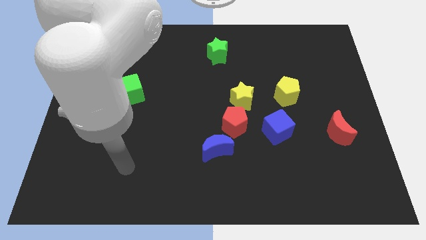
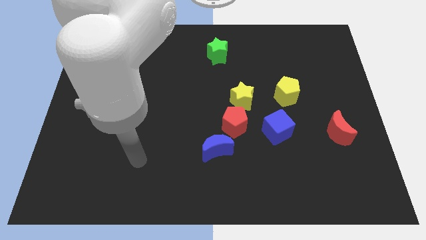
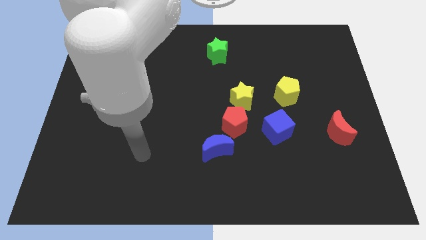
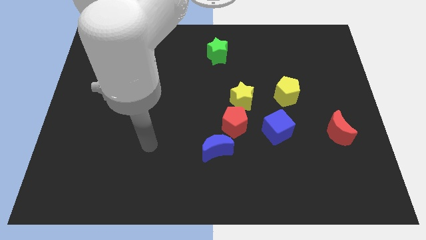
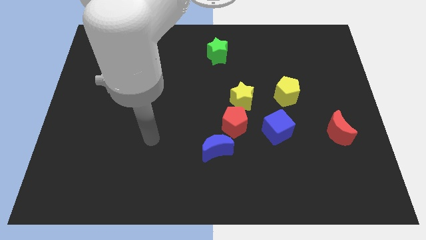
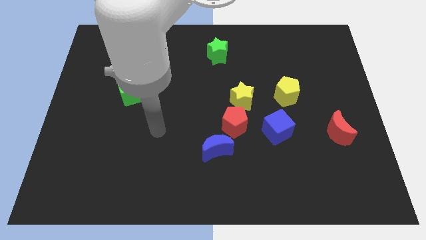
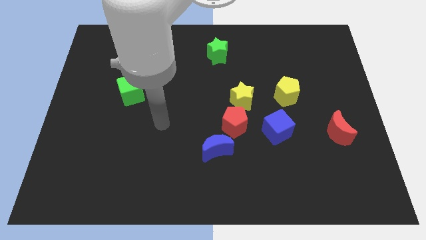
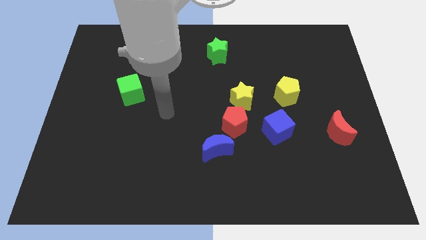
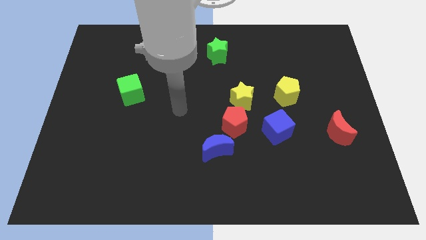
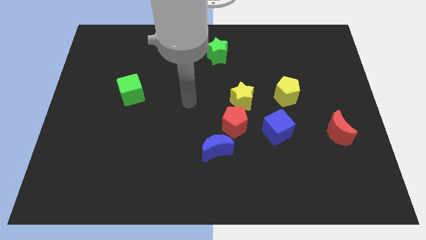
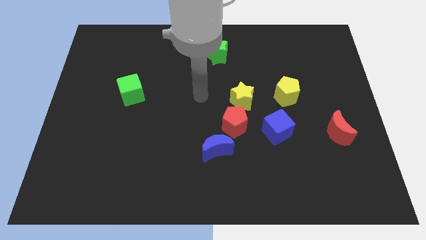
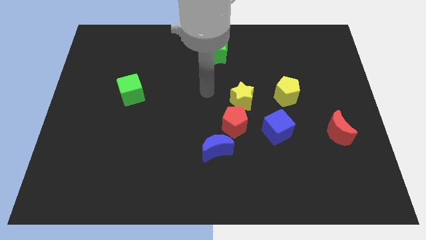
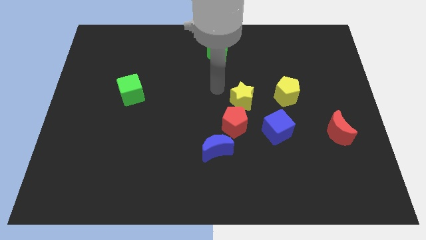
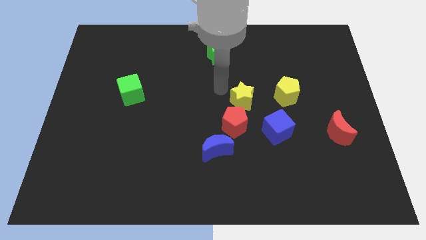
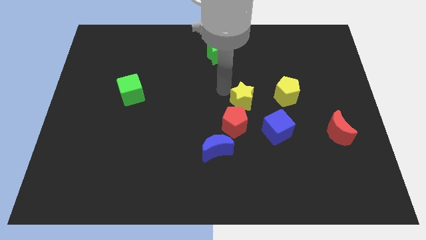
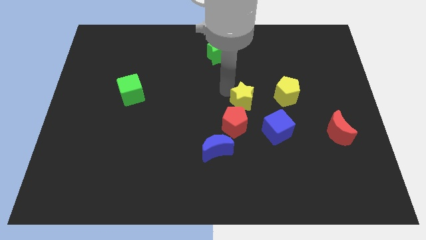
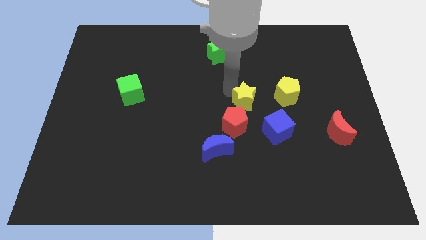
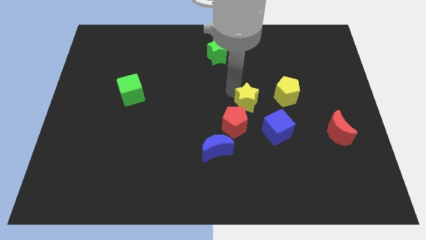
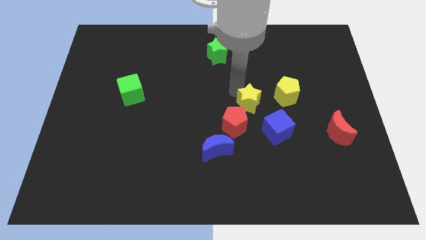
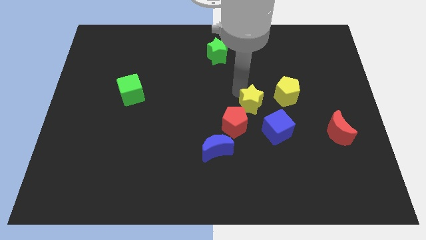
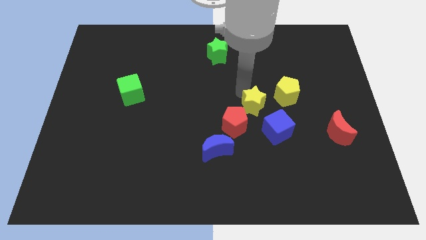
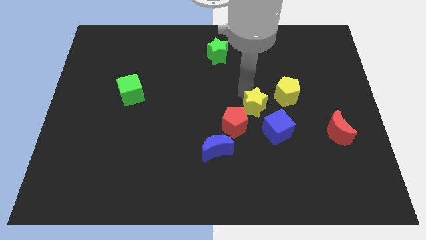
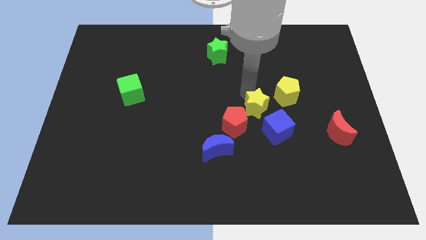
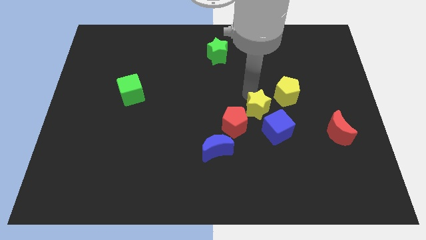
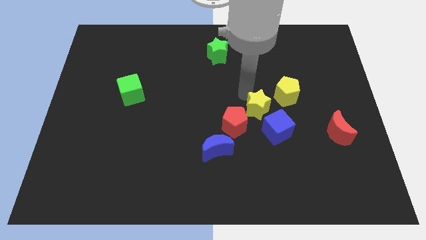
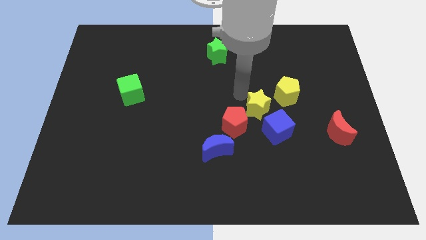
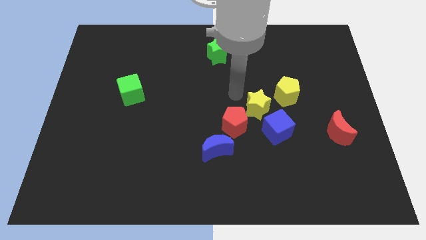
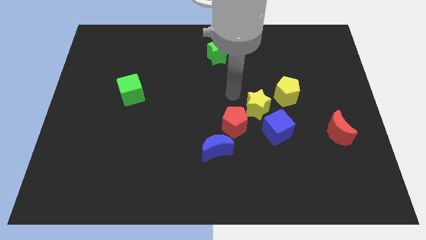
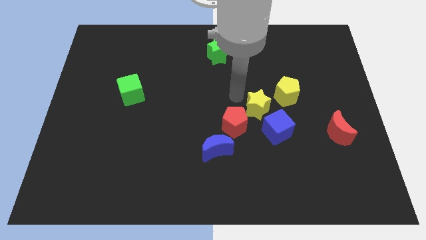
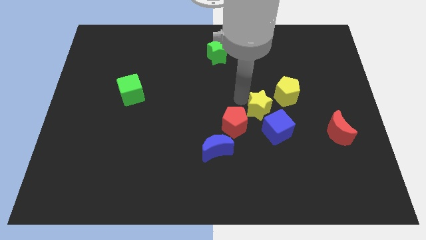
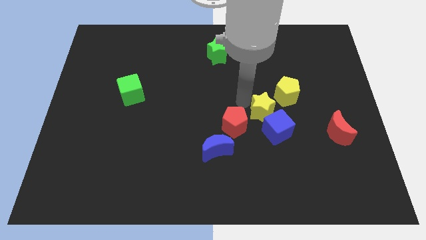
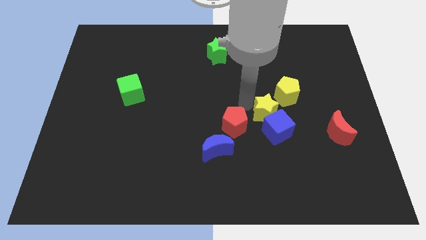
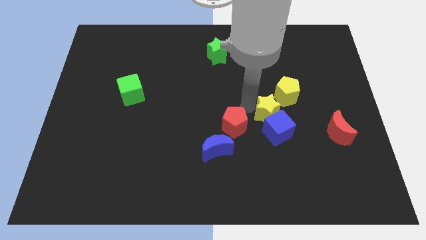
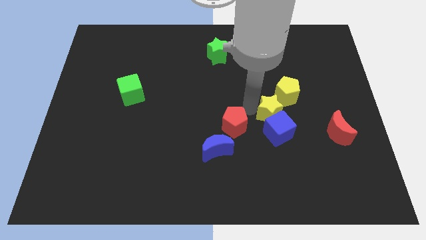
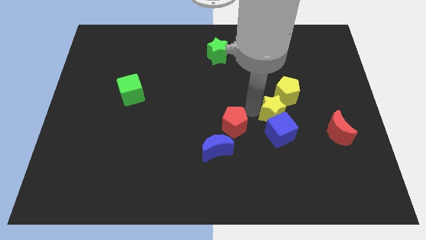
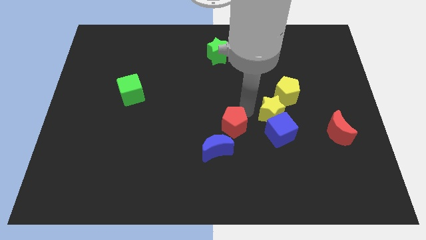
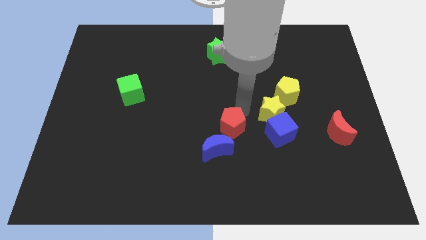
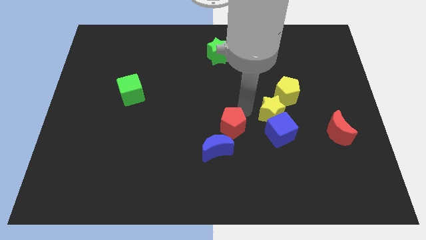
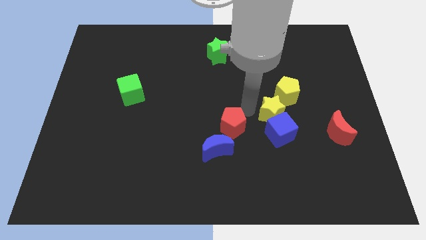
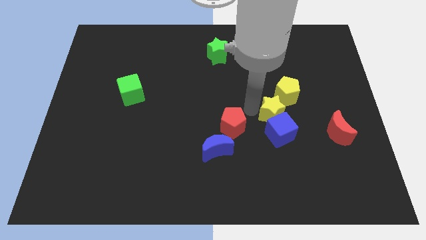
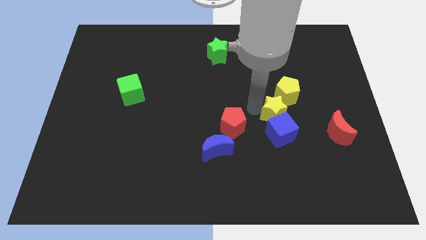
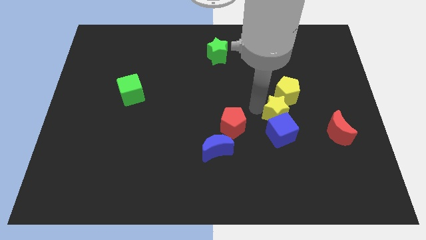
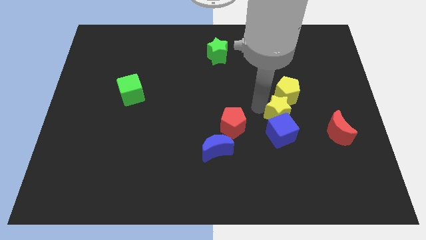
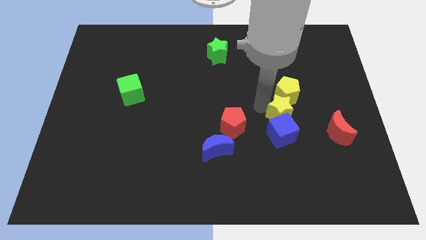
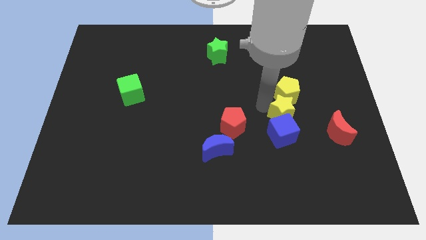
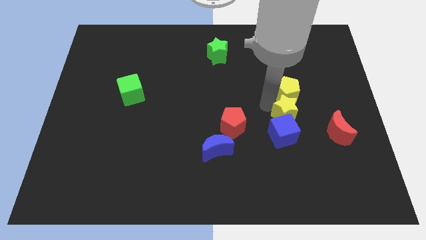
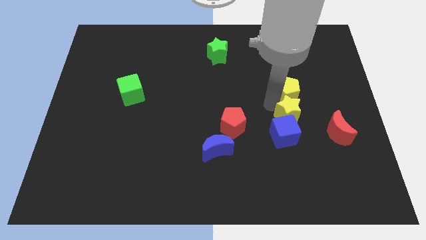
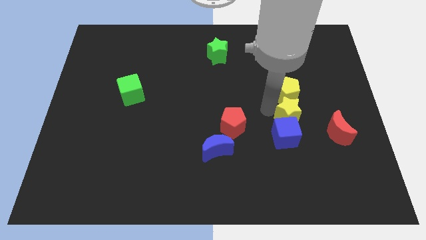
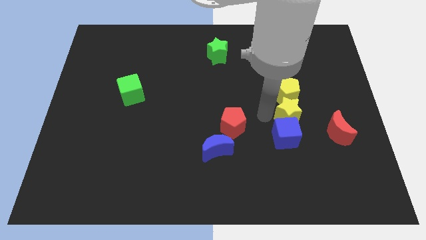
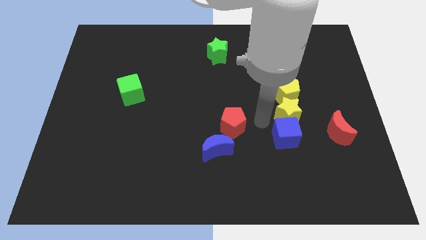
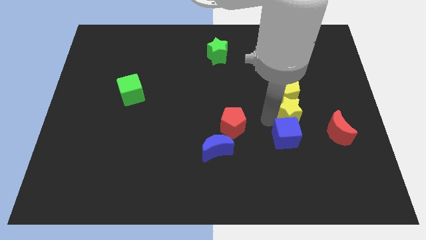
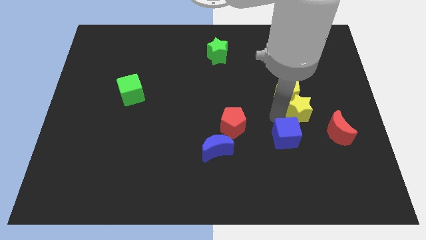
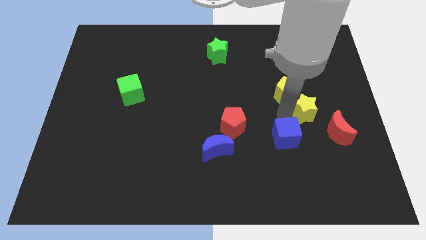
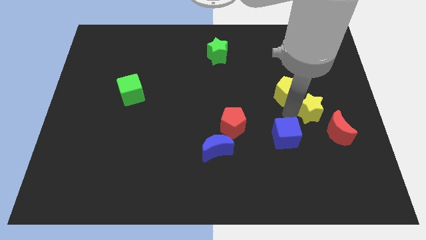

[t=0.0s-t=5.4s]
put the yellow star just right of the yellow pentagon

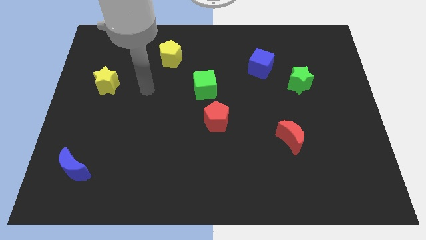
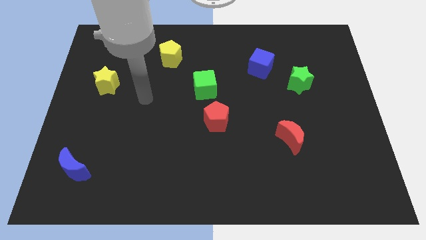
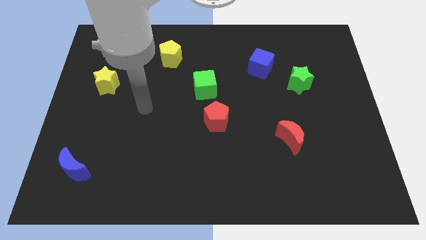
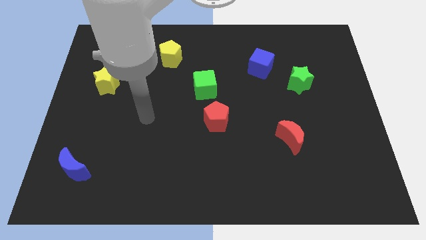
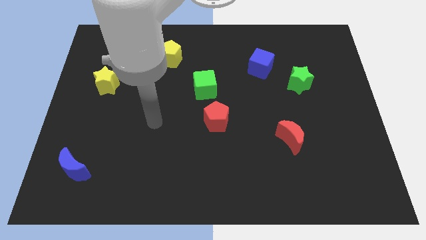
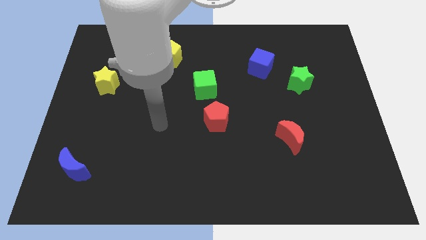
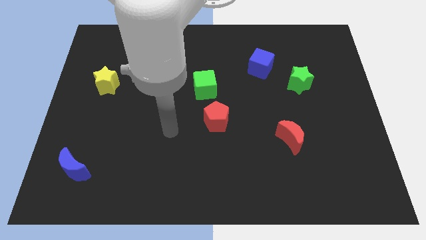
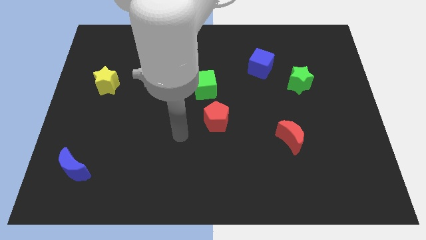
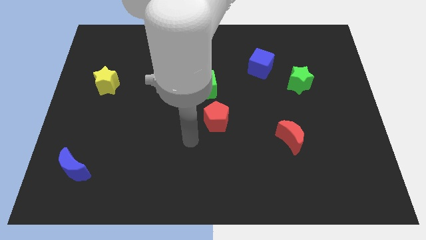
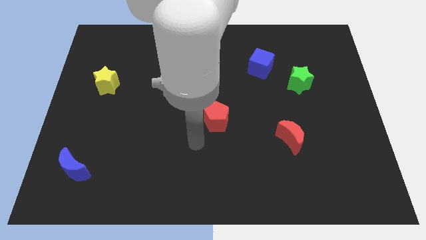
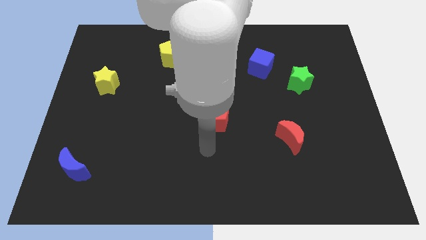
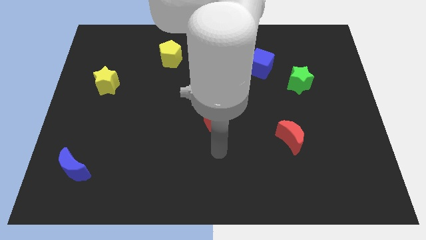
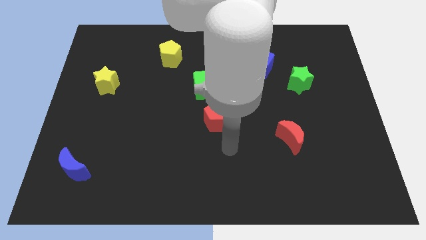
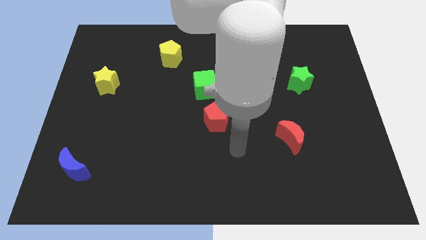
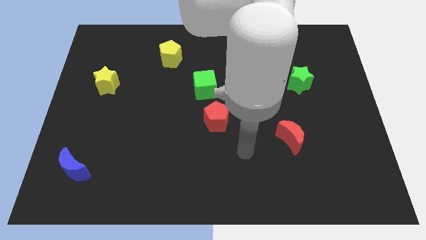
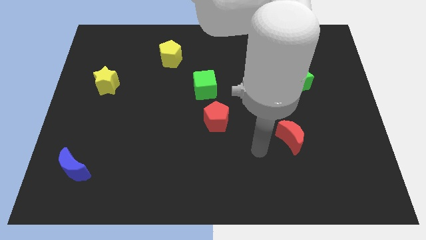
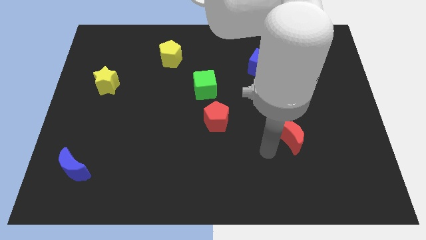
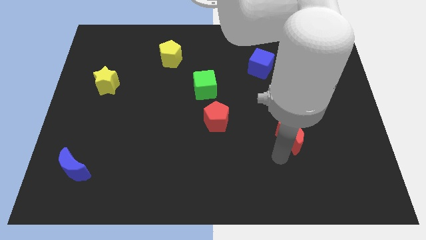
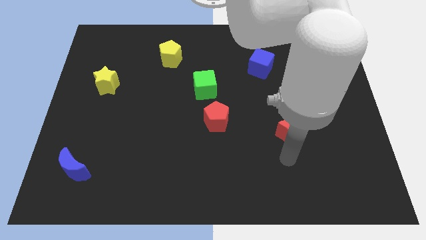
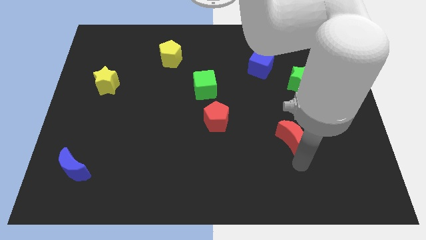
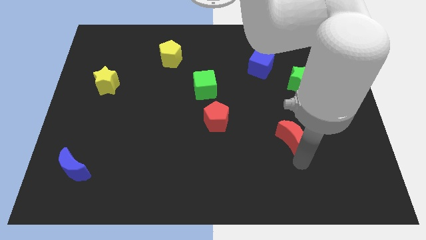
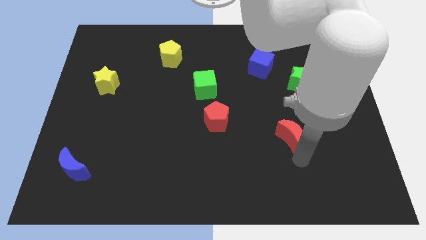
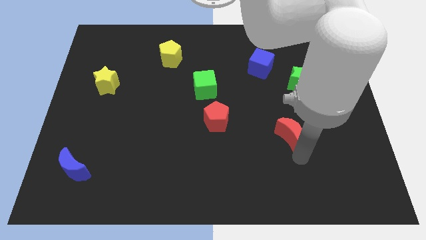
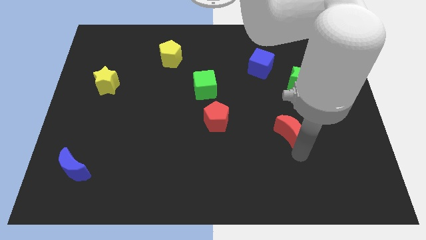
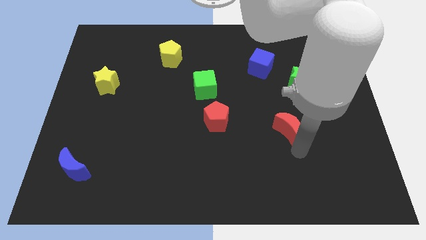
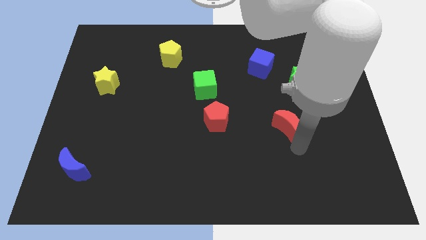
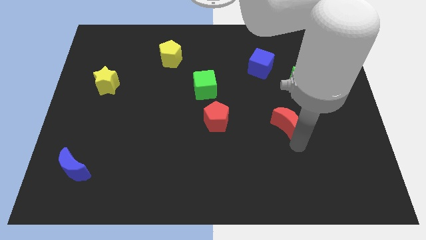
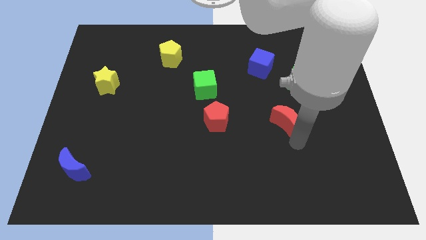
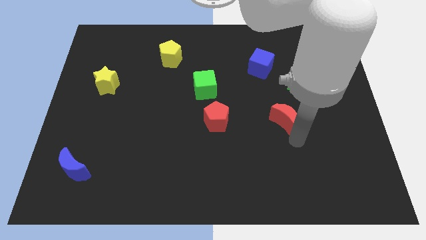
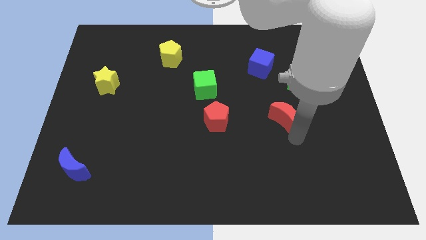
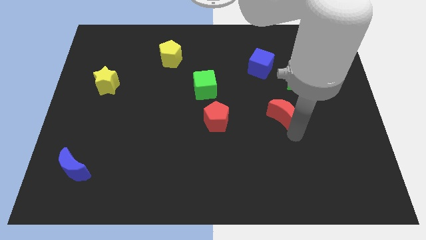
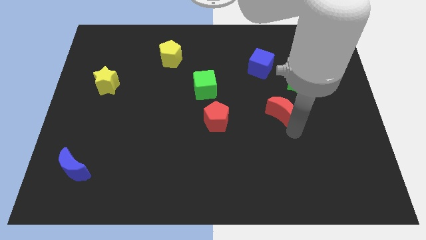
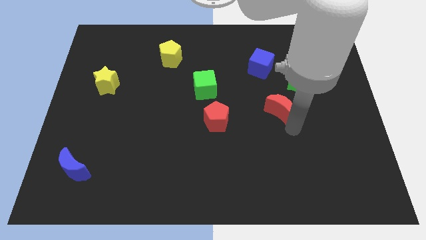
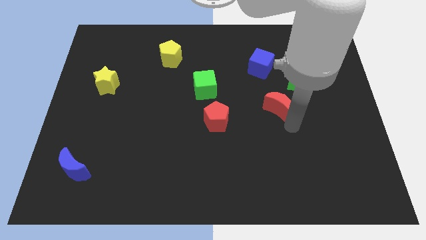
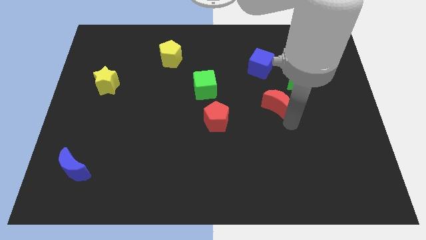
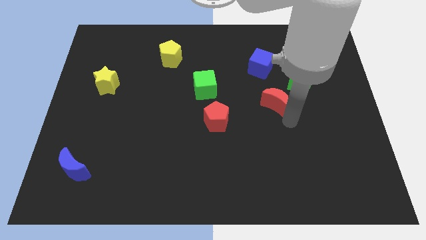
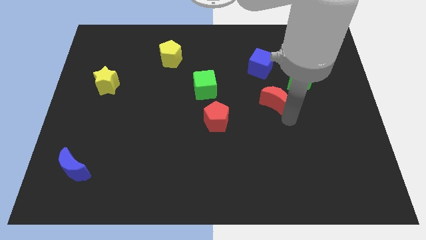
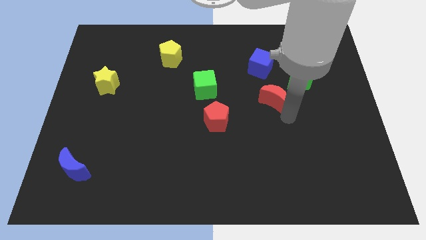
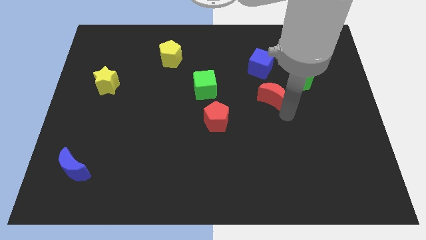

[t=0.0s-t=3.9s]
slide the red moon to the left side of the green star
